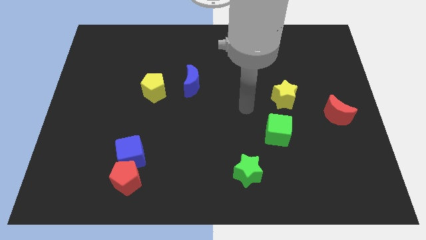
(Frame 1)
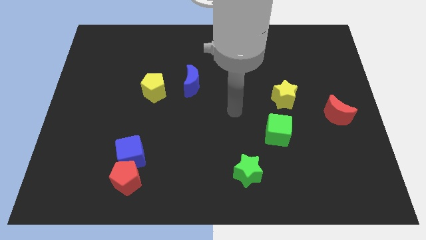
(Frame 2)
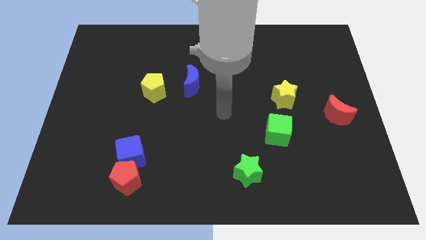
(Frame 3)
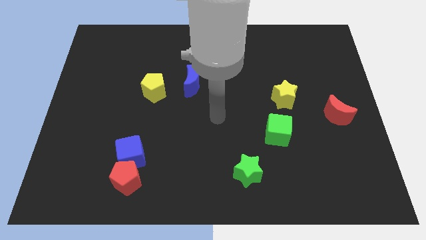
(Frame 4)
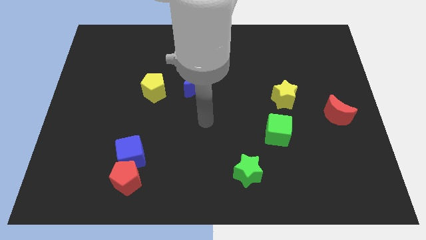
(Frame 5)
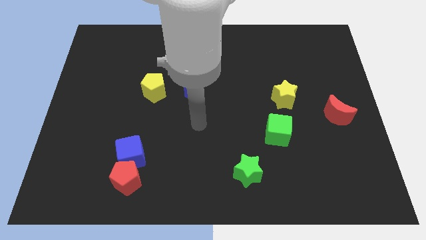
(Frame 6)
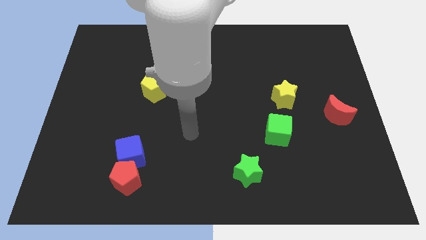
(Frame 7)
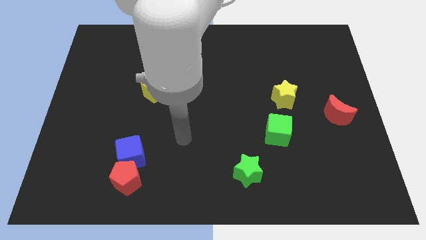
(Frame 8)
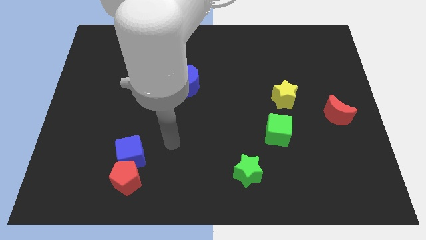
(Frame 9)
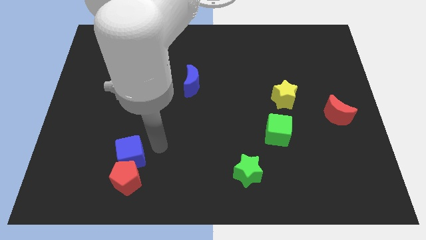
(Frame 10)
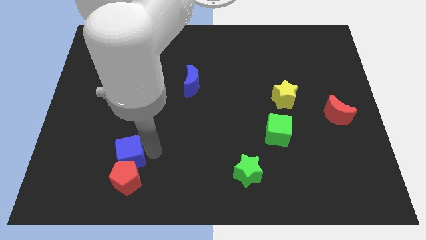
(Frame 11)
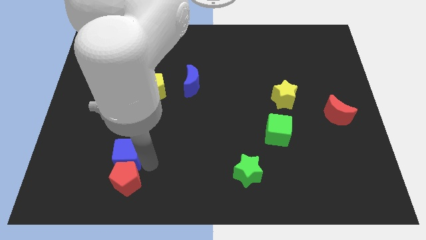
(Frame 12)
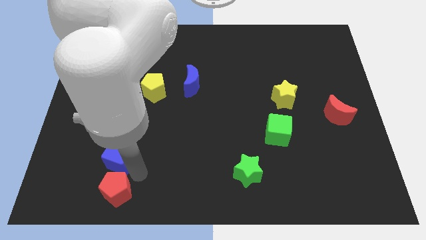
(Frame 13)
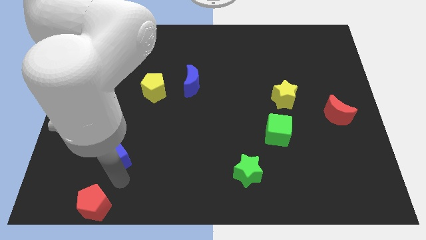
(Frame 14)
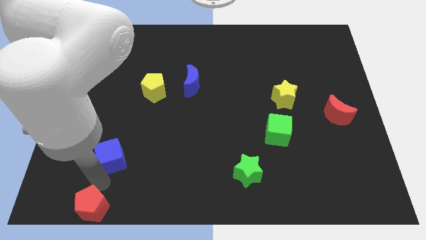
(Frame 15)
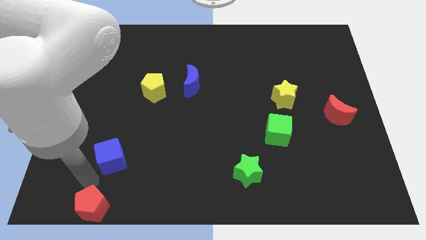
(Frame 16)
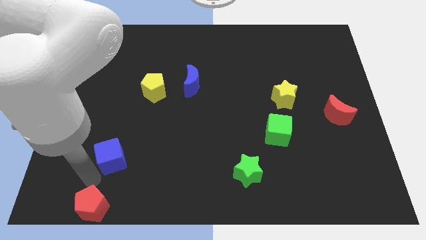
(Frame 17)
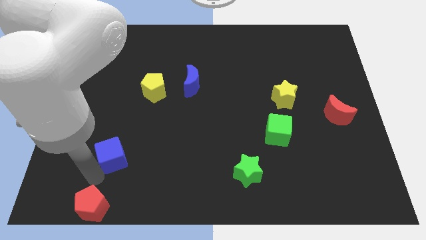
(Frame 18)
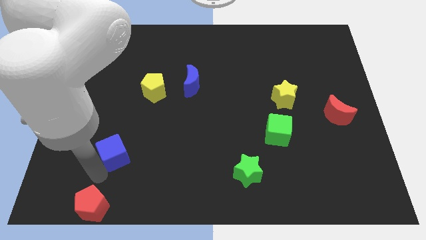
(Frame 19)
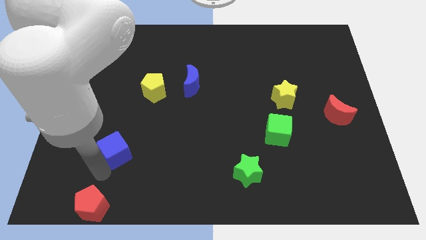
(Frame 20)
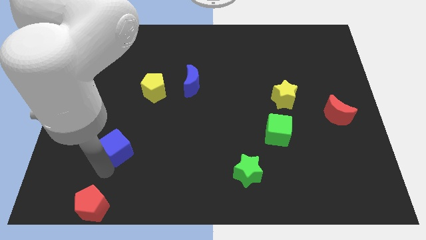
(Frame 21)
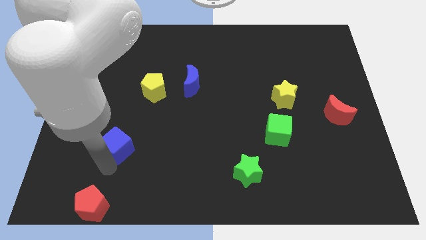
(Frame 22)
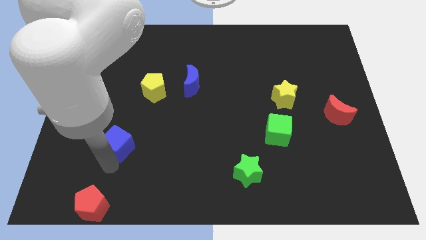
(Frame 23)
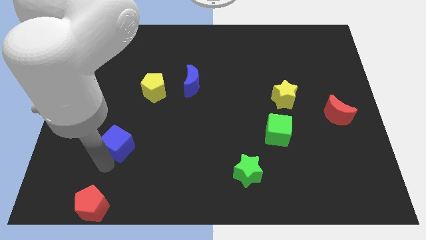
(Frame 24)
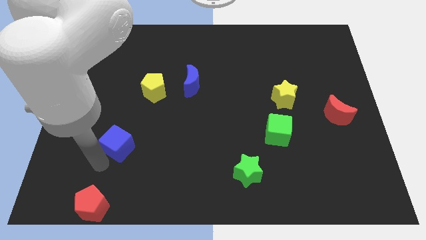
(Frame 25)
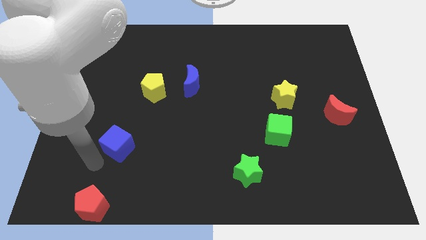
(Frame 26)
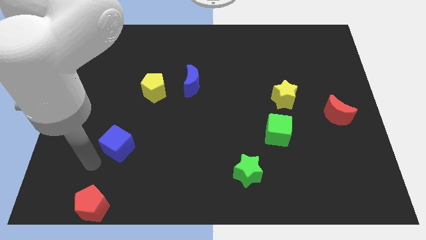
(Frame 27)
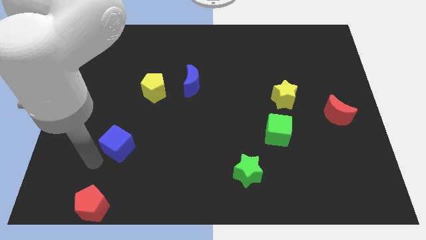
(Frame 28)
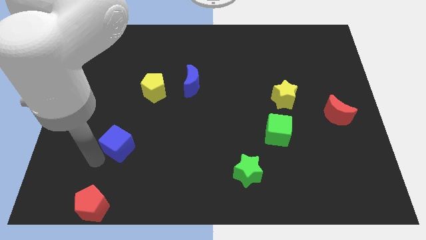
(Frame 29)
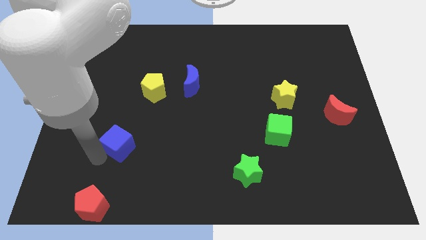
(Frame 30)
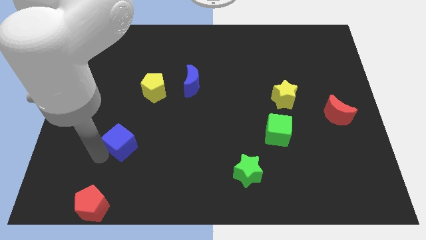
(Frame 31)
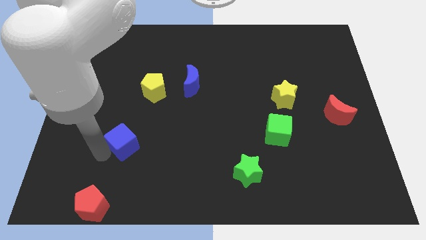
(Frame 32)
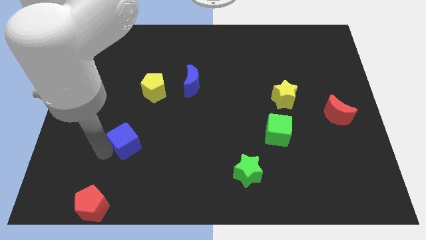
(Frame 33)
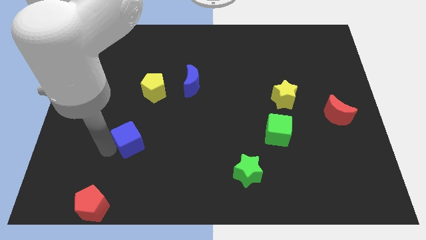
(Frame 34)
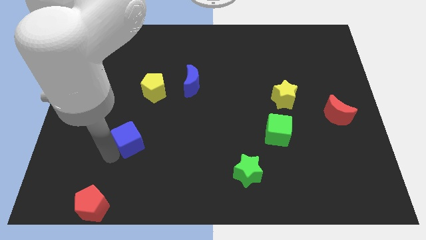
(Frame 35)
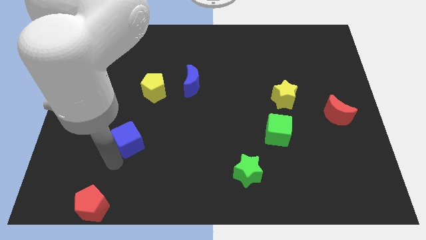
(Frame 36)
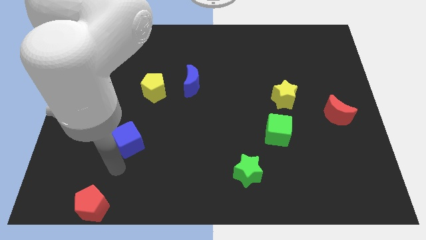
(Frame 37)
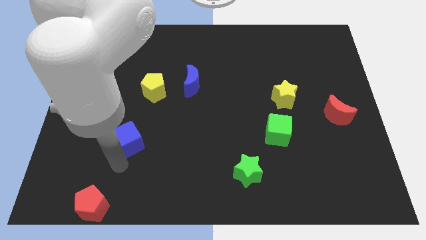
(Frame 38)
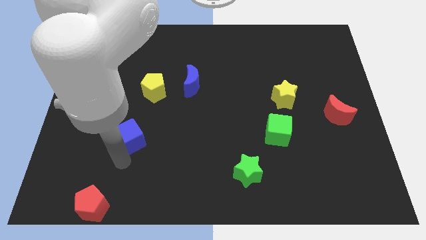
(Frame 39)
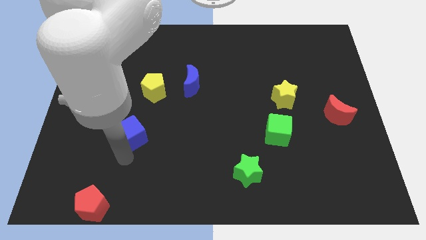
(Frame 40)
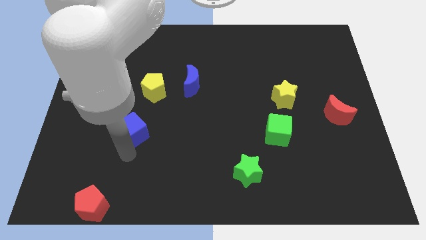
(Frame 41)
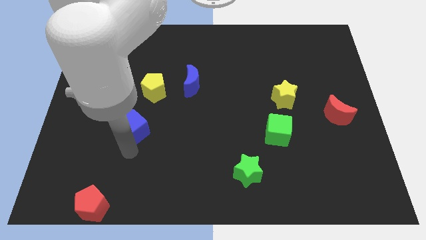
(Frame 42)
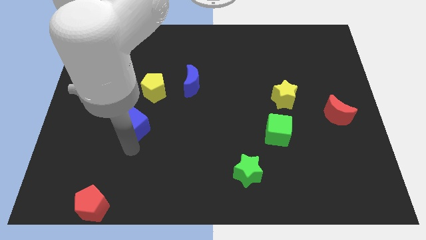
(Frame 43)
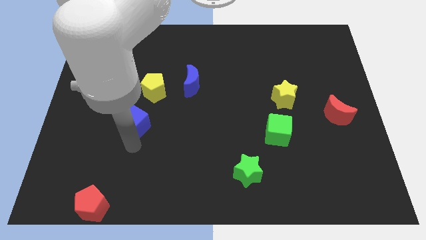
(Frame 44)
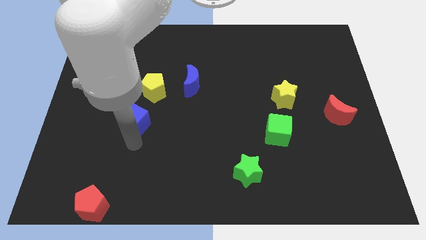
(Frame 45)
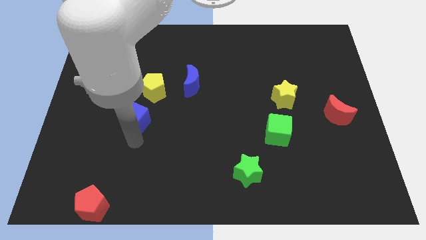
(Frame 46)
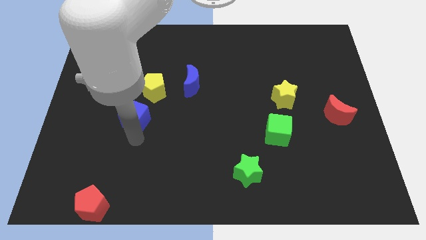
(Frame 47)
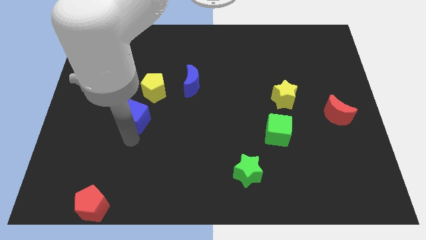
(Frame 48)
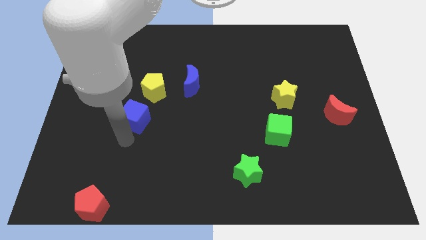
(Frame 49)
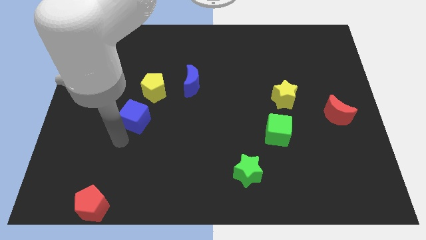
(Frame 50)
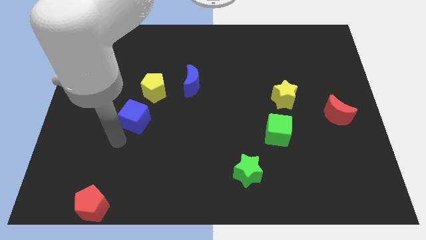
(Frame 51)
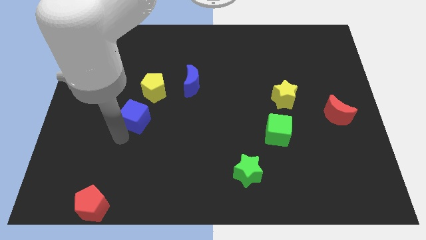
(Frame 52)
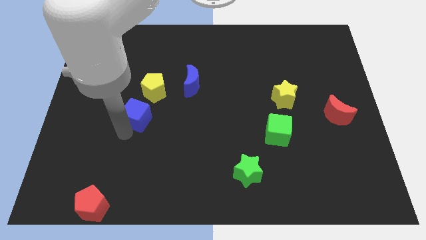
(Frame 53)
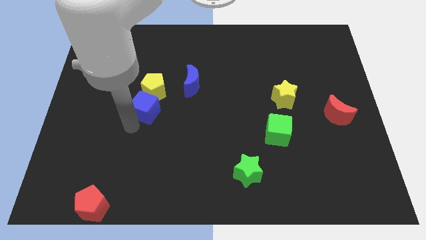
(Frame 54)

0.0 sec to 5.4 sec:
put the blue cube to the yellow pentagon

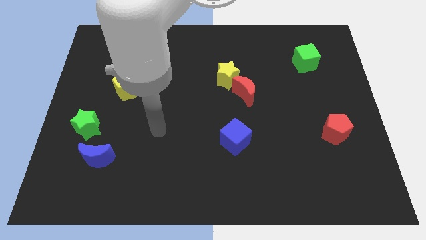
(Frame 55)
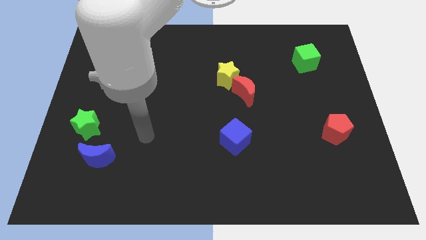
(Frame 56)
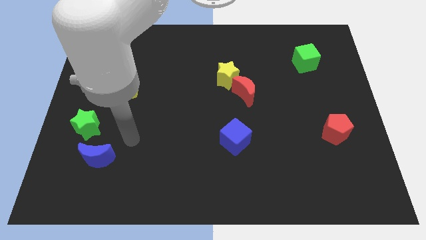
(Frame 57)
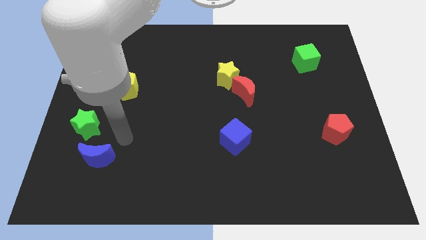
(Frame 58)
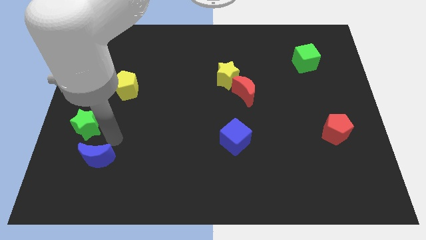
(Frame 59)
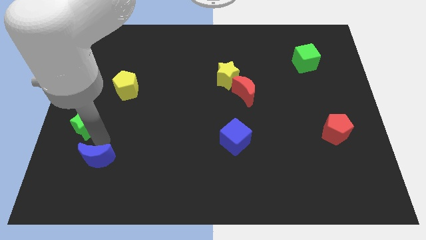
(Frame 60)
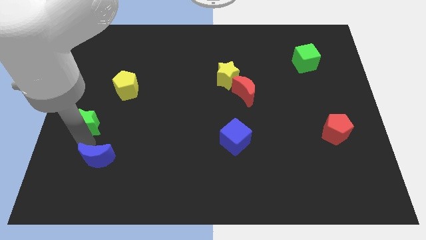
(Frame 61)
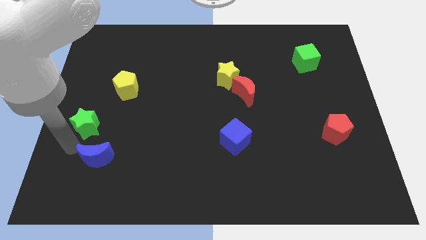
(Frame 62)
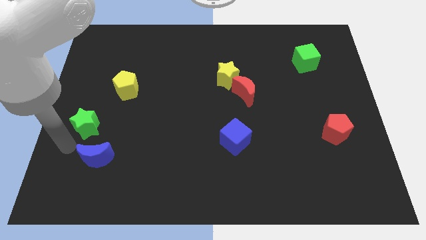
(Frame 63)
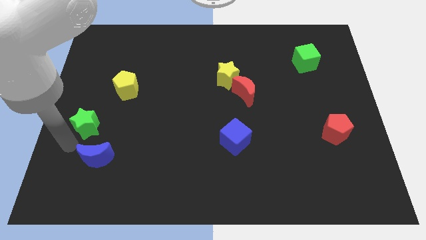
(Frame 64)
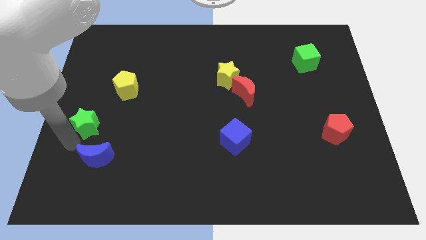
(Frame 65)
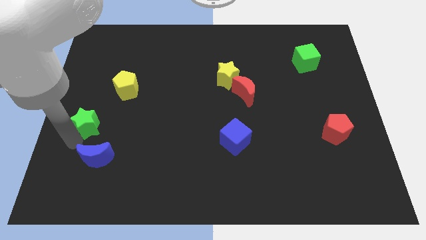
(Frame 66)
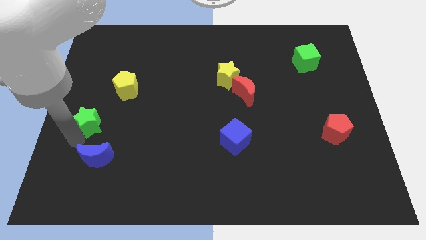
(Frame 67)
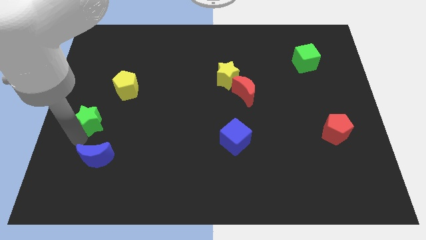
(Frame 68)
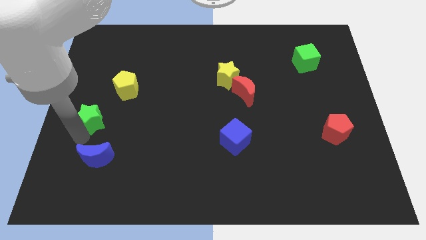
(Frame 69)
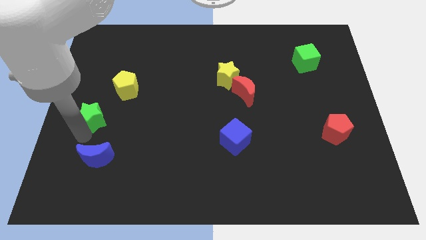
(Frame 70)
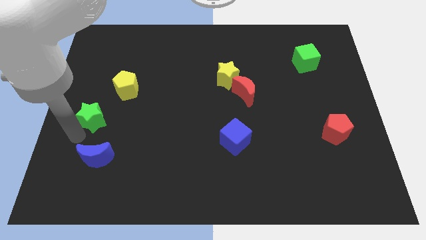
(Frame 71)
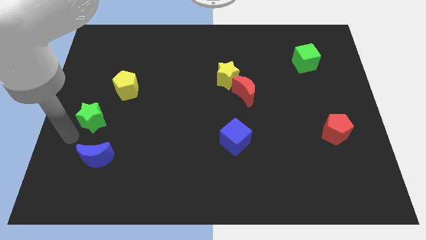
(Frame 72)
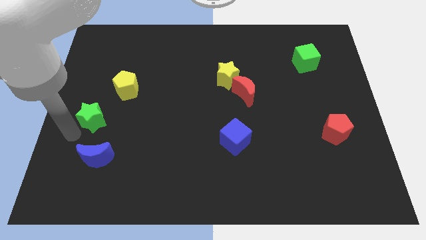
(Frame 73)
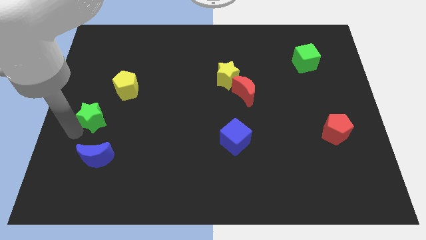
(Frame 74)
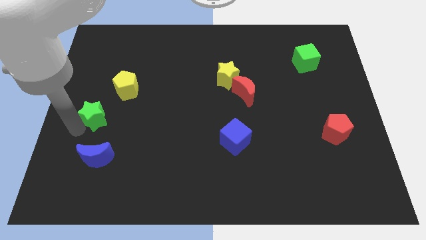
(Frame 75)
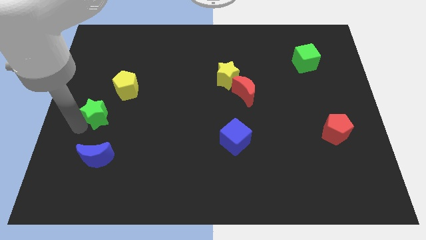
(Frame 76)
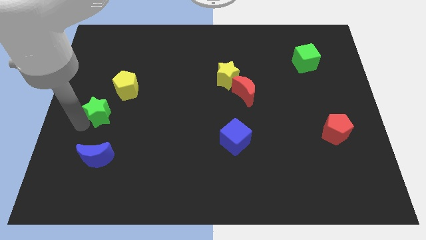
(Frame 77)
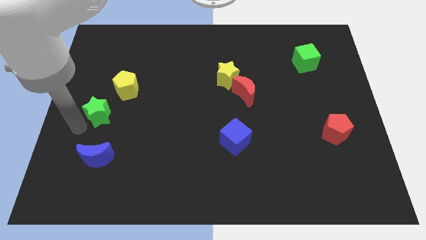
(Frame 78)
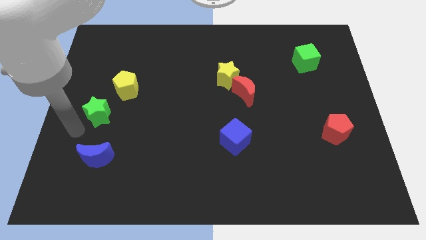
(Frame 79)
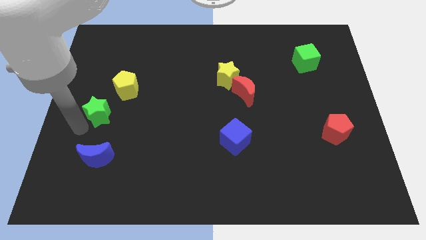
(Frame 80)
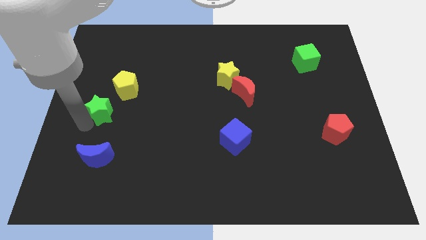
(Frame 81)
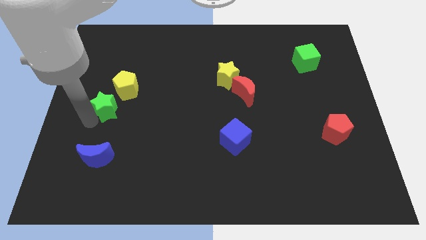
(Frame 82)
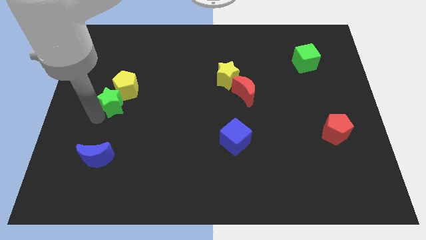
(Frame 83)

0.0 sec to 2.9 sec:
put the green star next to the yellow pentagon
